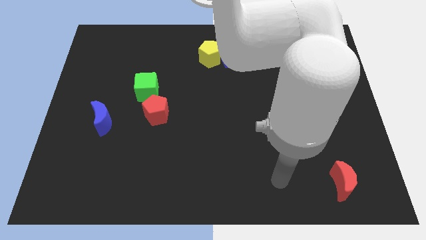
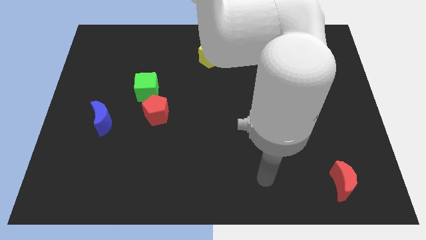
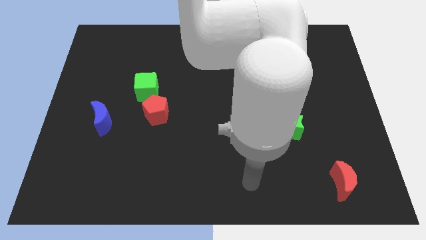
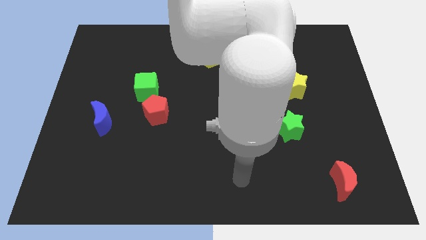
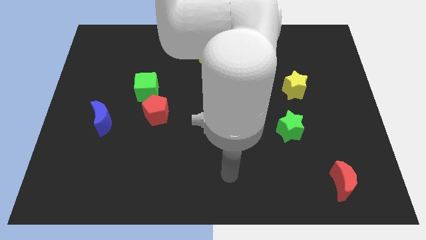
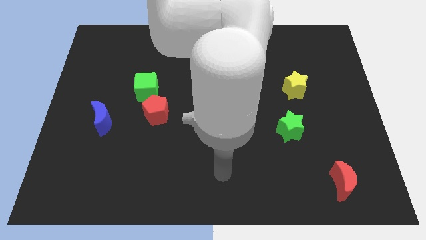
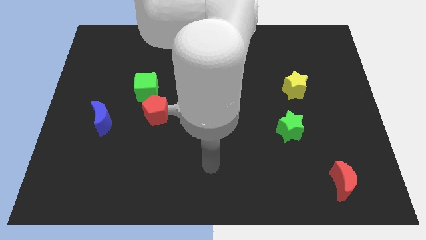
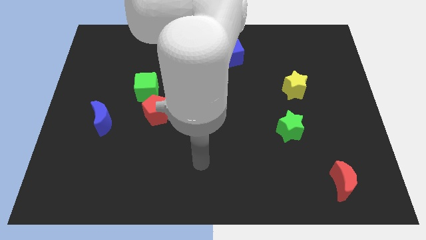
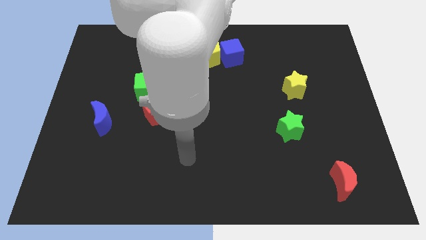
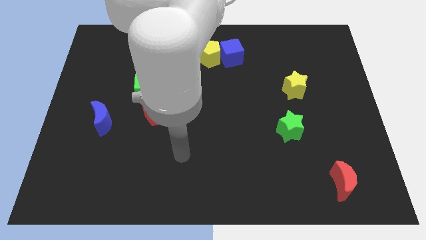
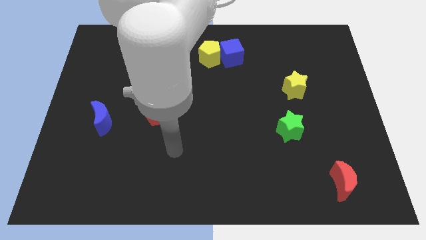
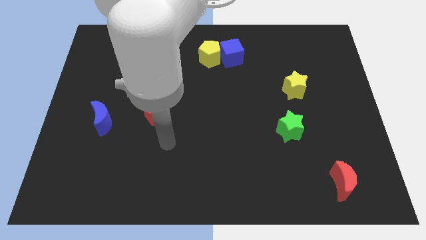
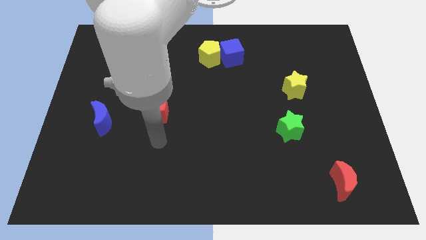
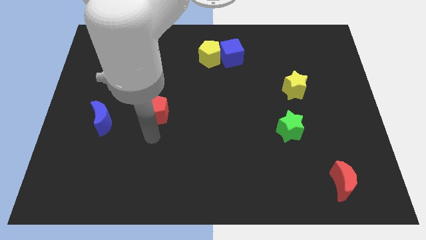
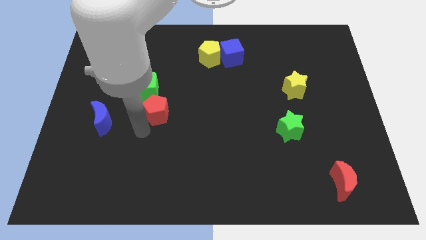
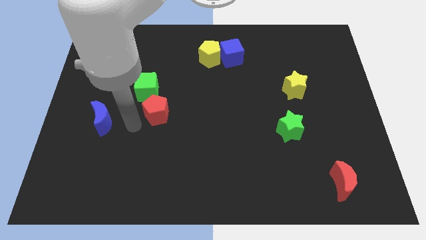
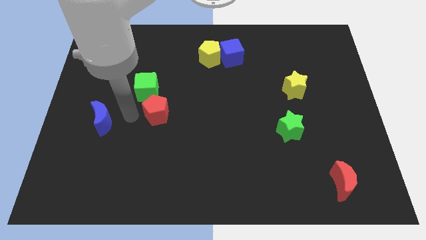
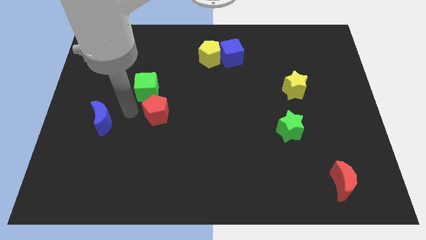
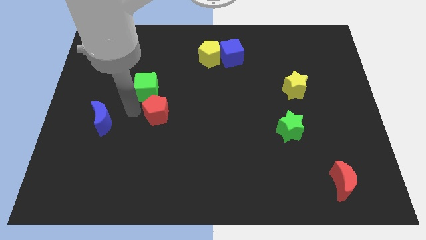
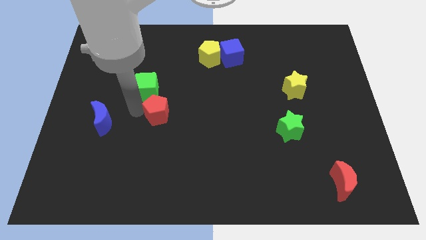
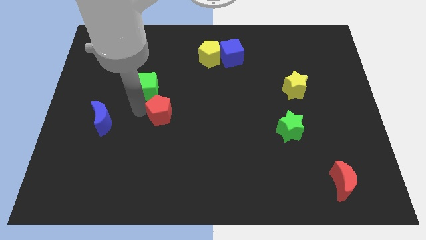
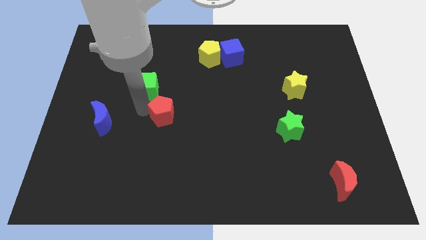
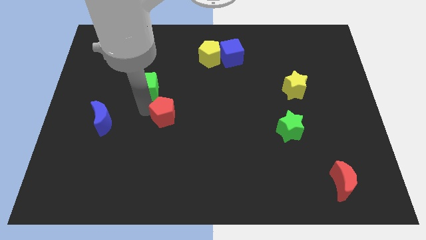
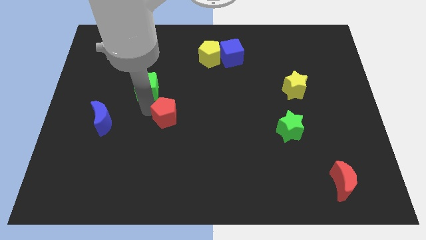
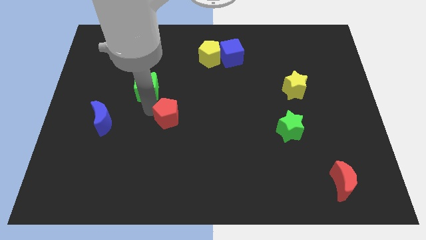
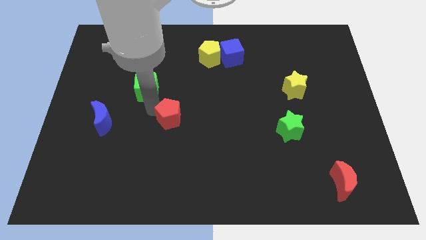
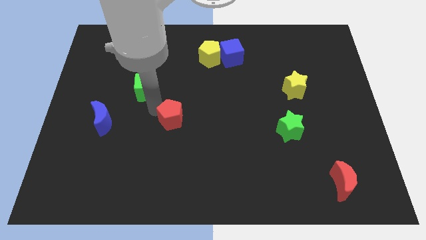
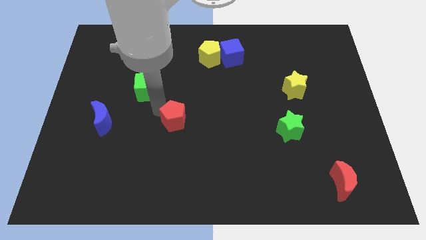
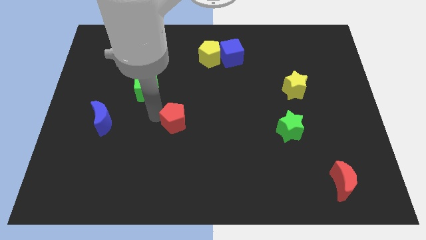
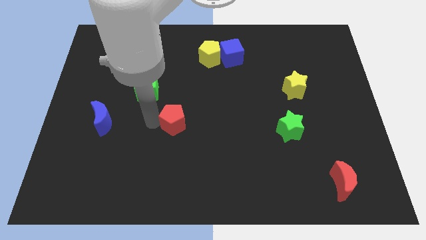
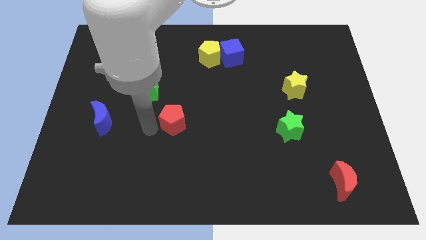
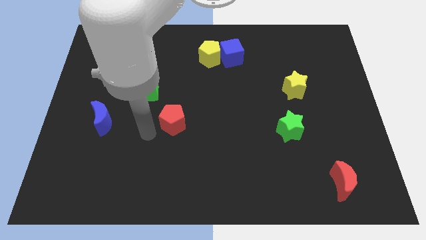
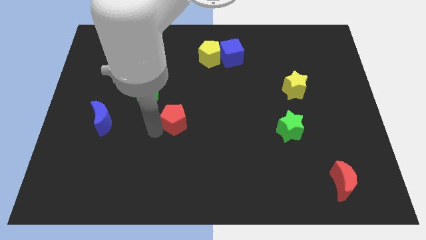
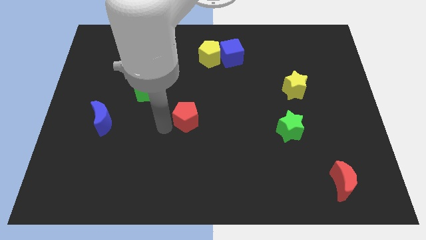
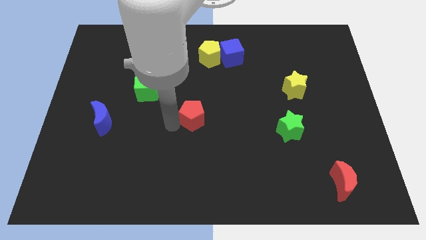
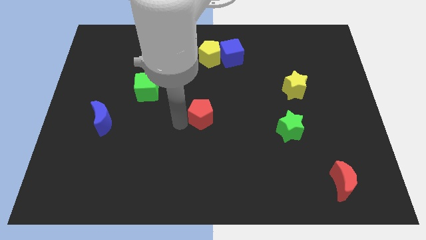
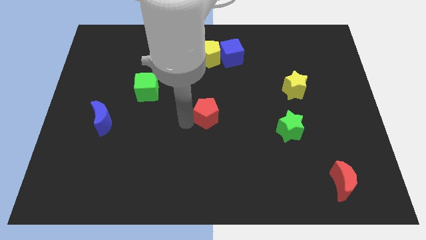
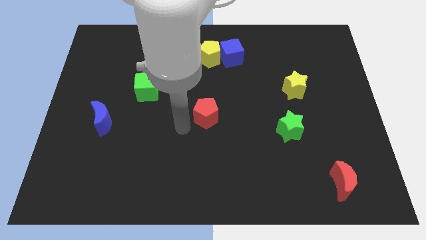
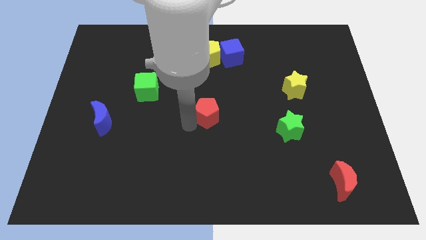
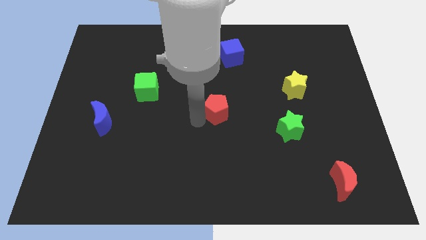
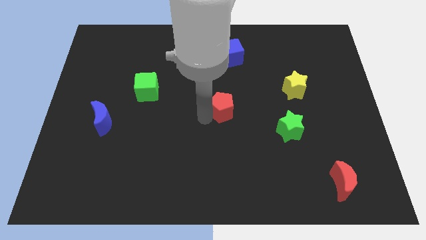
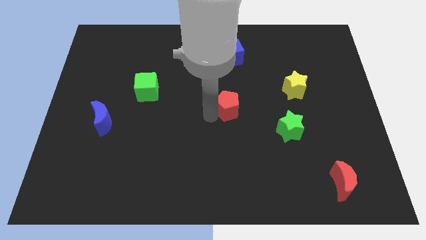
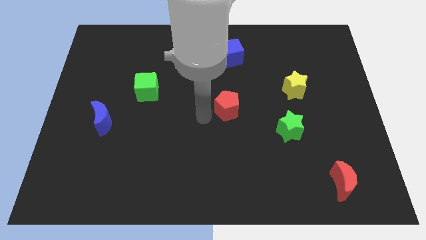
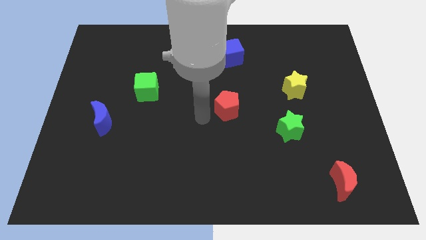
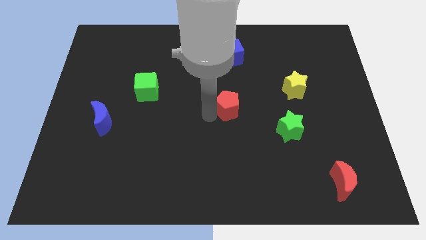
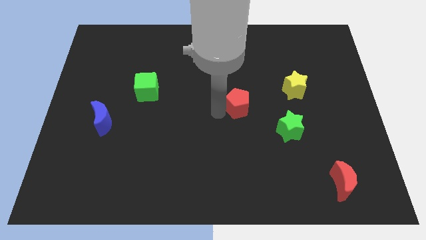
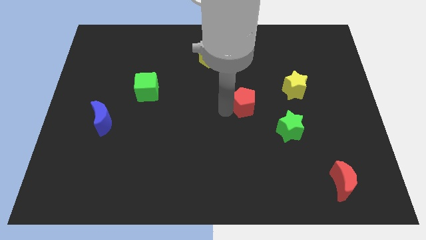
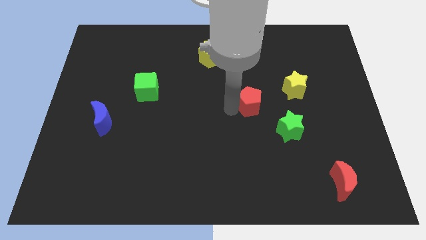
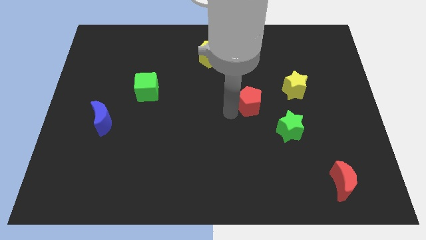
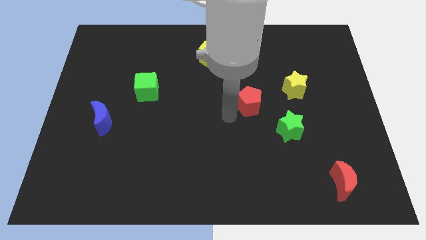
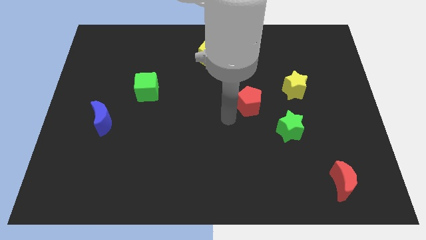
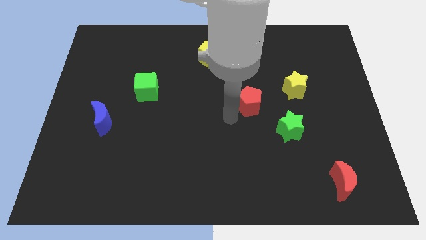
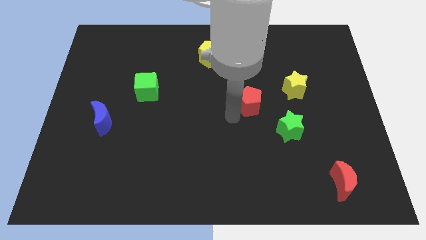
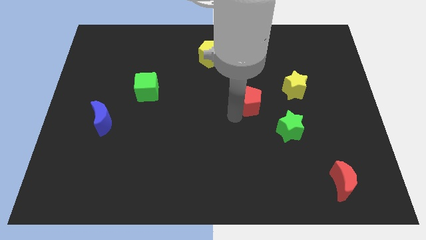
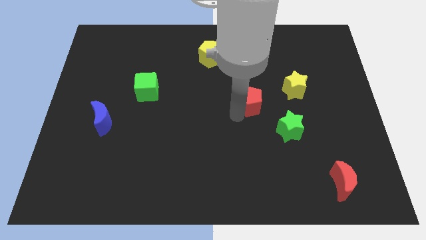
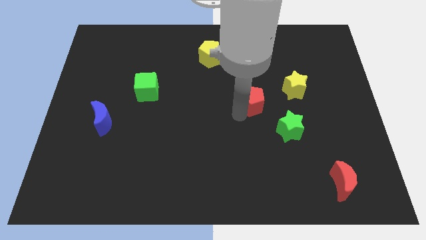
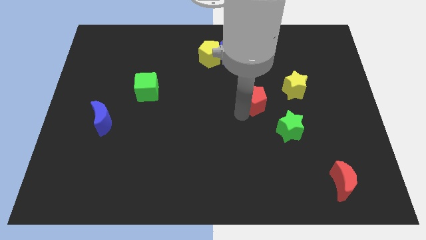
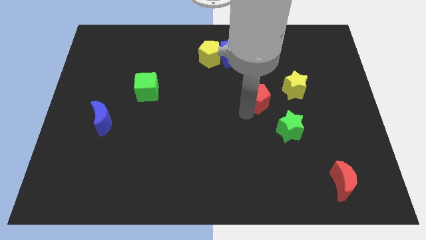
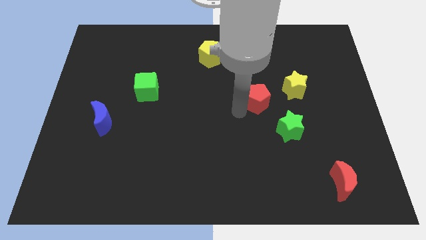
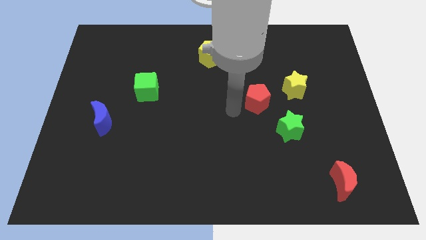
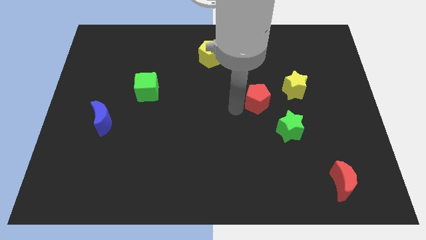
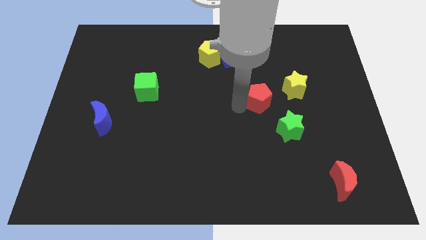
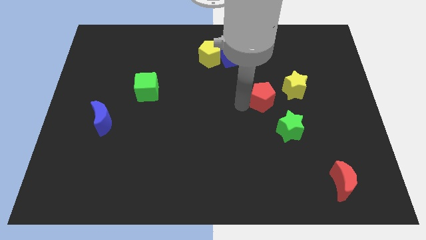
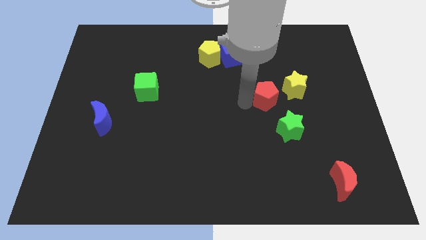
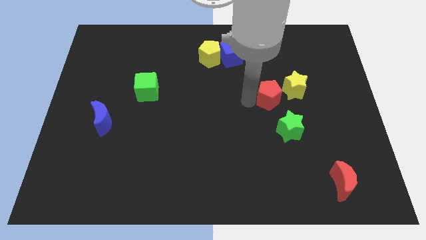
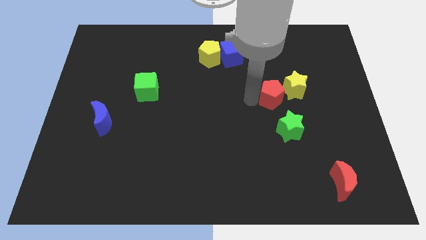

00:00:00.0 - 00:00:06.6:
push the red pentagon towards the yellow star

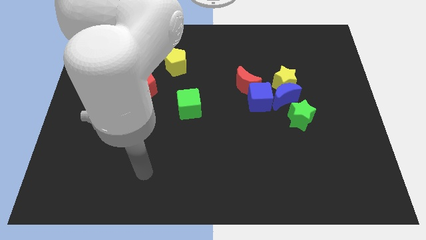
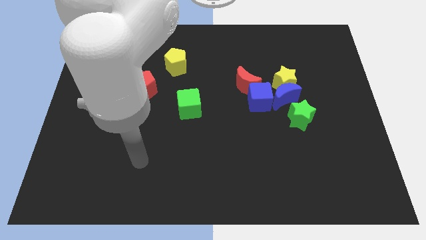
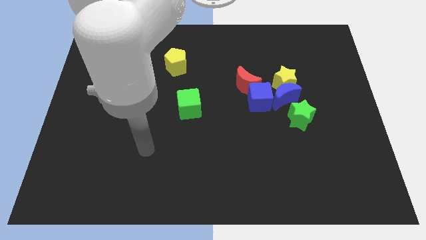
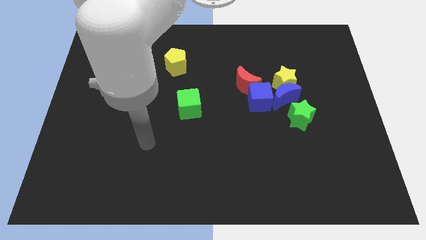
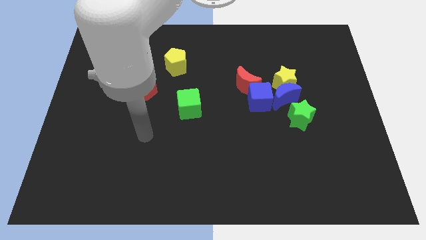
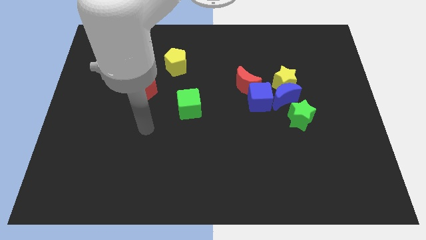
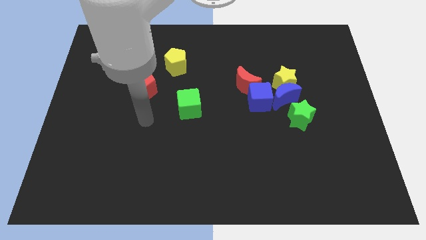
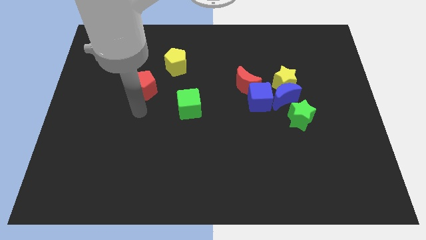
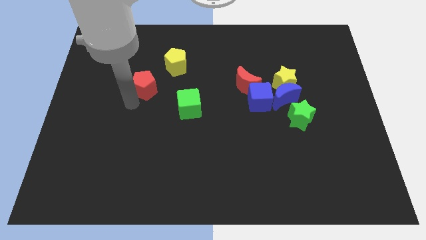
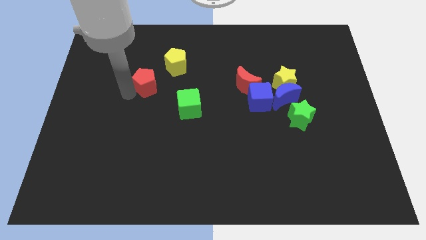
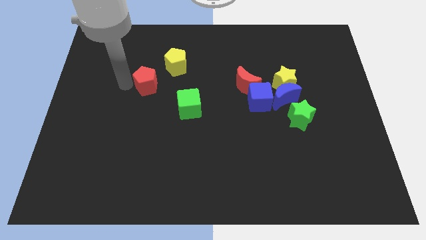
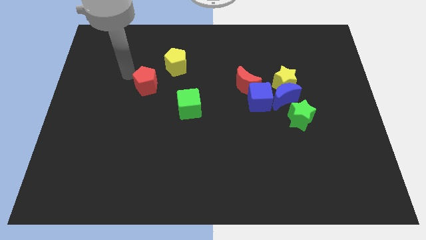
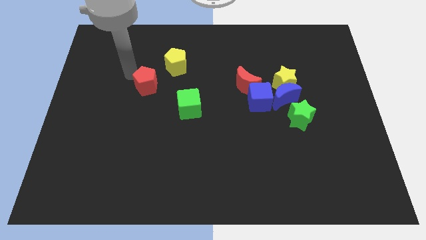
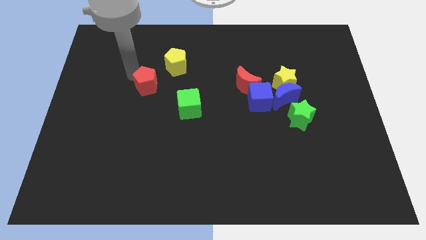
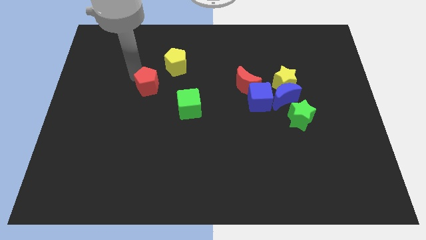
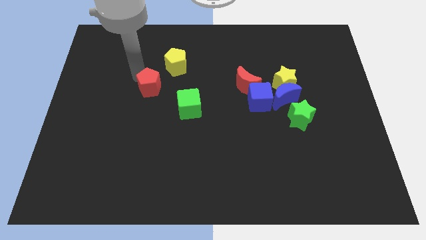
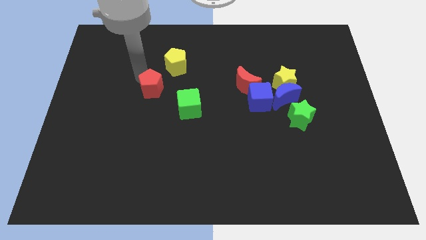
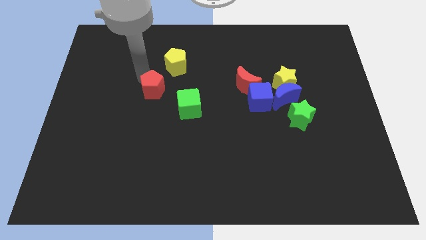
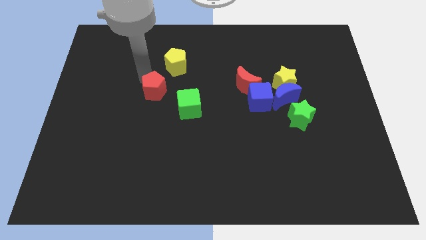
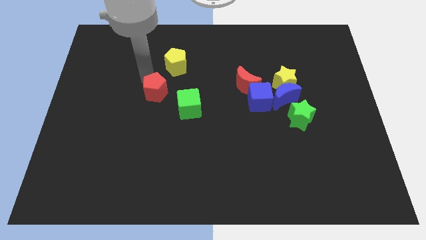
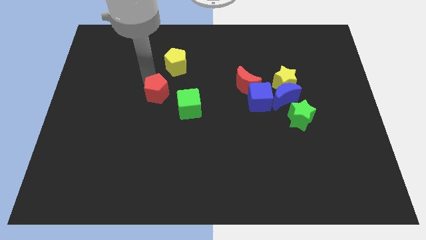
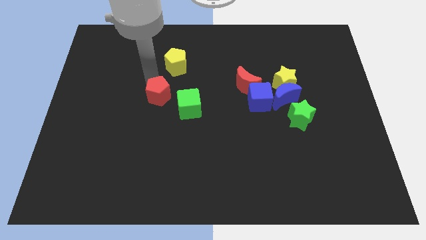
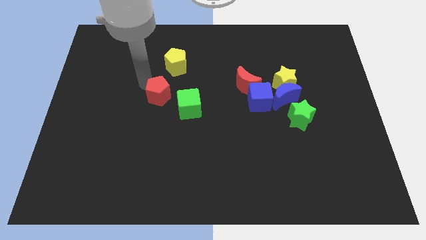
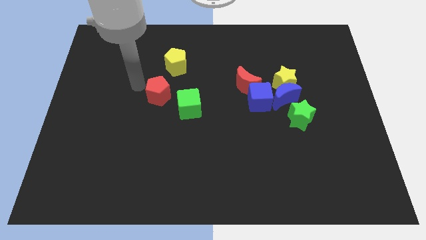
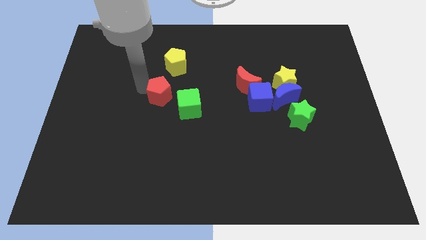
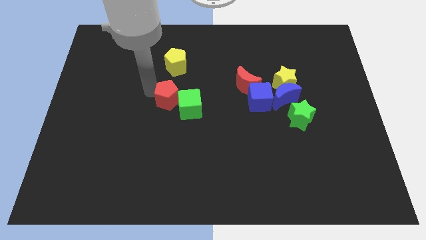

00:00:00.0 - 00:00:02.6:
put the red pentagon close to the green cube
